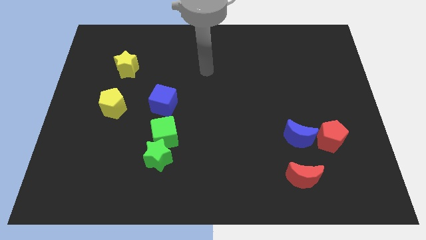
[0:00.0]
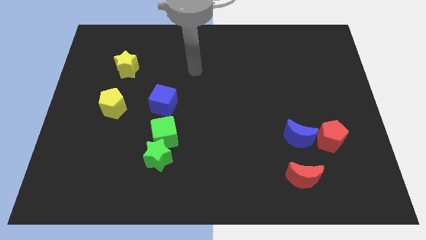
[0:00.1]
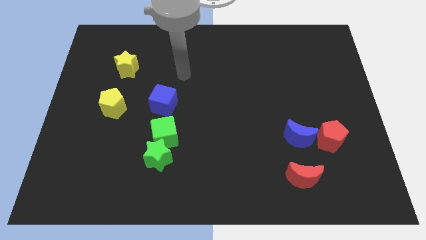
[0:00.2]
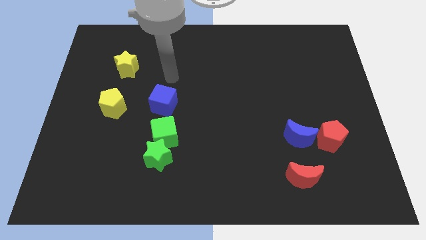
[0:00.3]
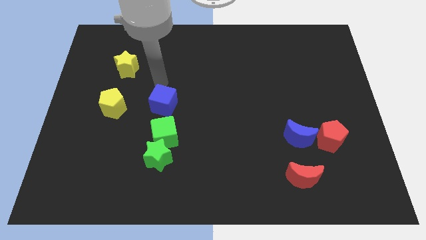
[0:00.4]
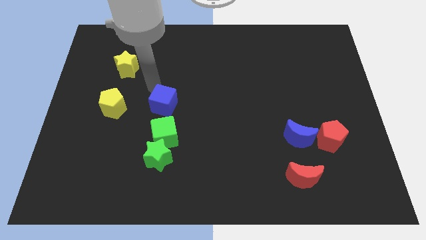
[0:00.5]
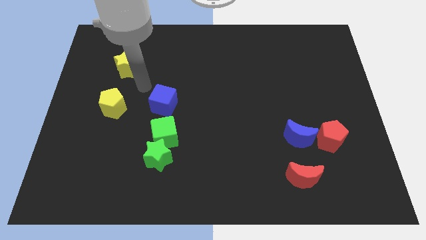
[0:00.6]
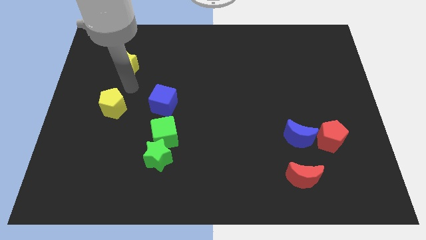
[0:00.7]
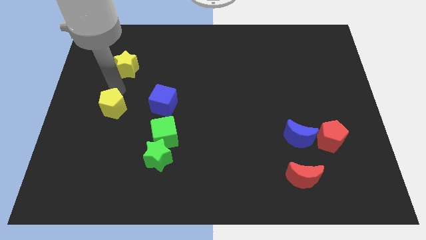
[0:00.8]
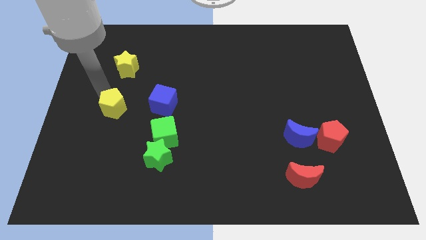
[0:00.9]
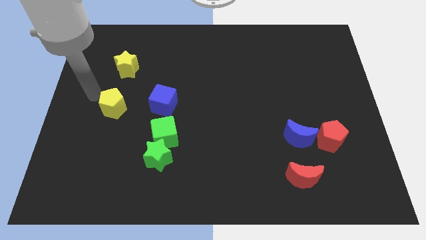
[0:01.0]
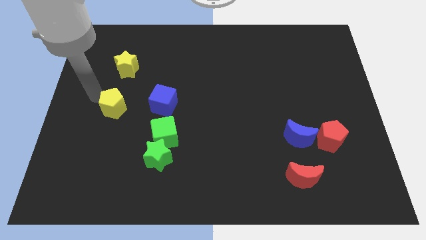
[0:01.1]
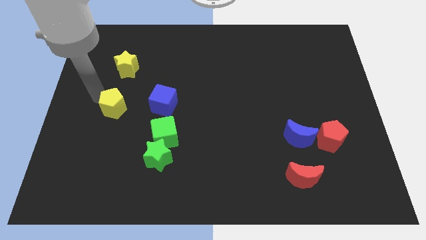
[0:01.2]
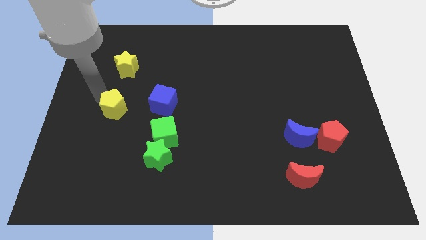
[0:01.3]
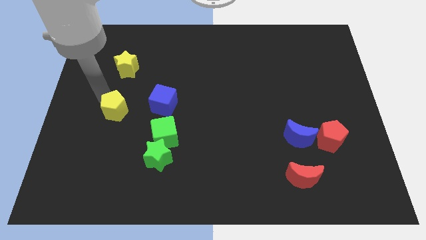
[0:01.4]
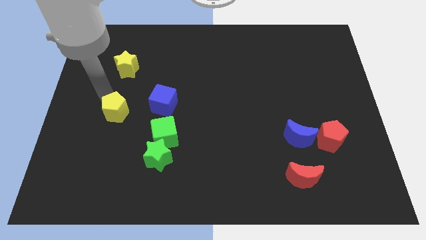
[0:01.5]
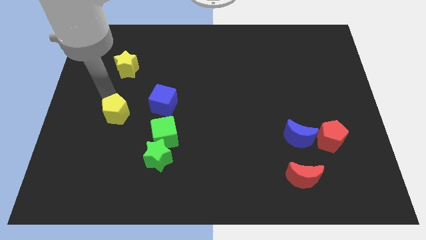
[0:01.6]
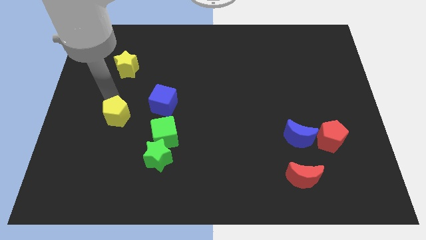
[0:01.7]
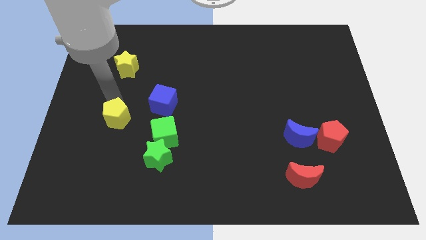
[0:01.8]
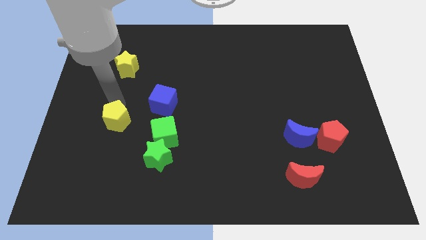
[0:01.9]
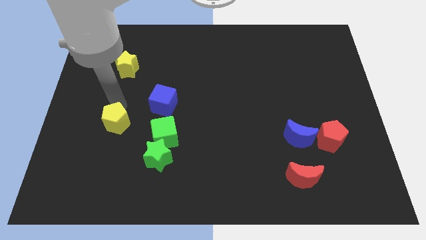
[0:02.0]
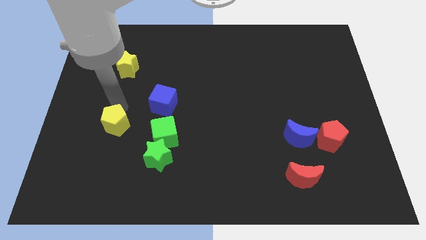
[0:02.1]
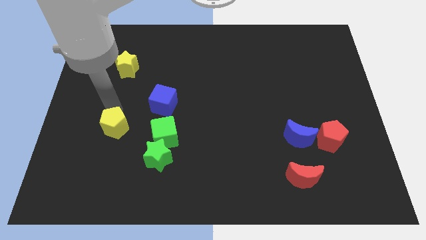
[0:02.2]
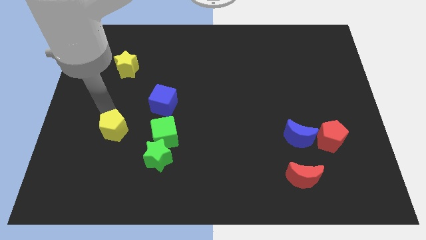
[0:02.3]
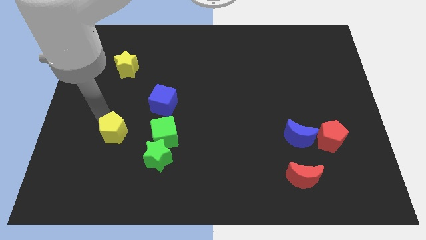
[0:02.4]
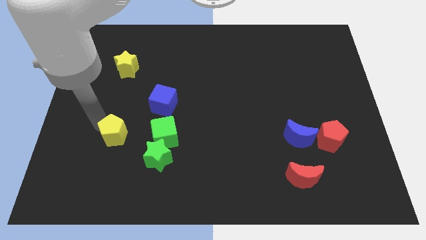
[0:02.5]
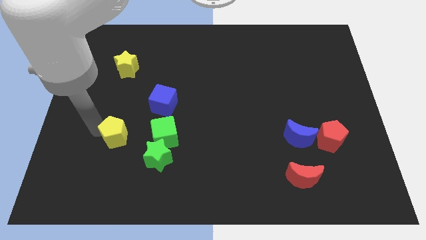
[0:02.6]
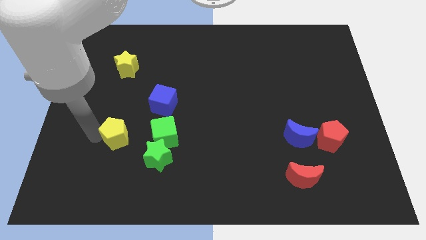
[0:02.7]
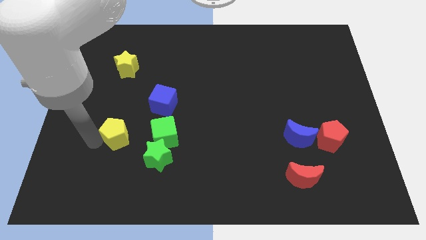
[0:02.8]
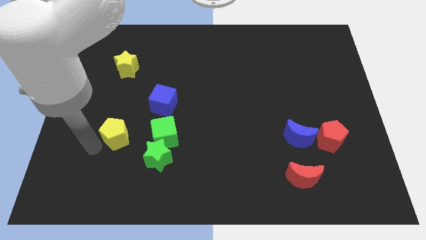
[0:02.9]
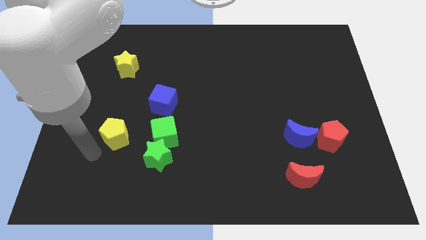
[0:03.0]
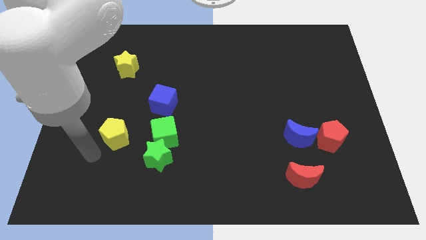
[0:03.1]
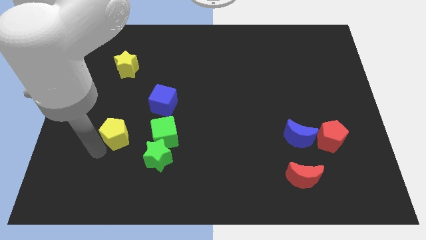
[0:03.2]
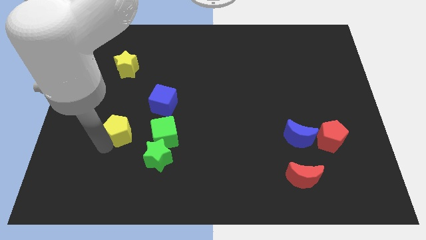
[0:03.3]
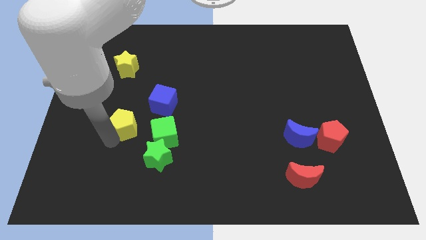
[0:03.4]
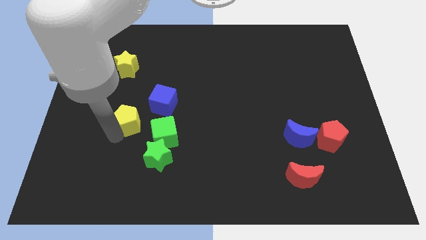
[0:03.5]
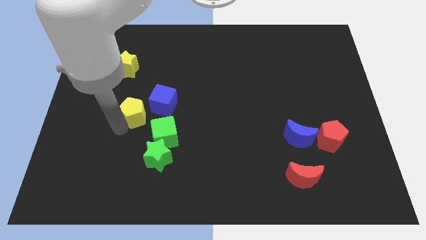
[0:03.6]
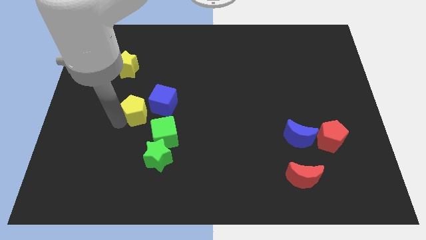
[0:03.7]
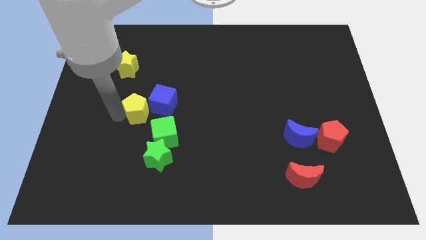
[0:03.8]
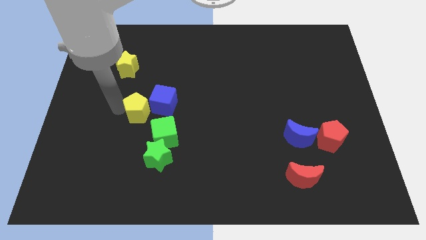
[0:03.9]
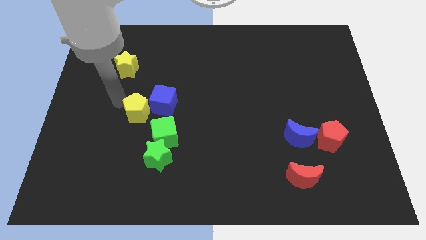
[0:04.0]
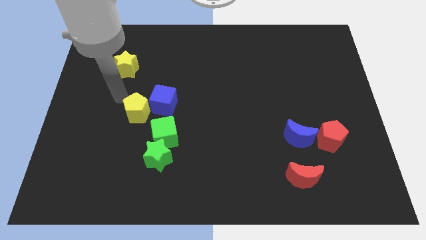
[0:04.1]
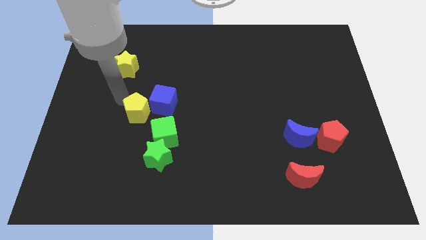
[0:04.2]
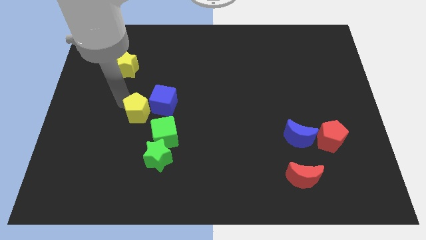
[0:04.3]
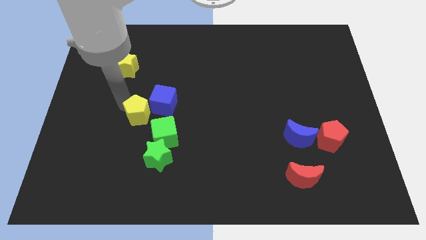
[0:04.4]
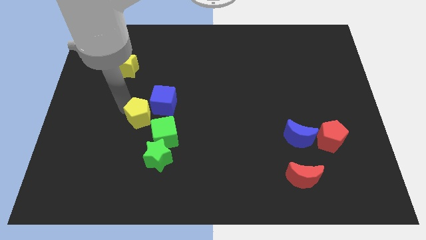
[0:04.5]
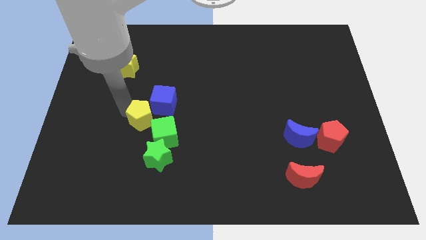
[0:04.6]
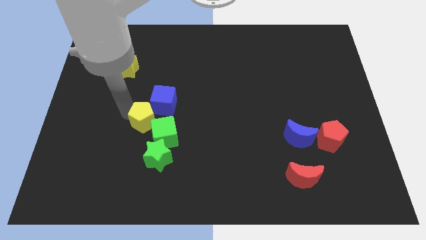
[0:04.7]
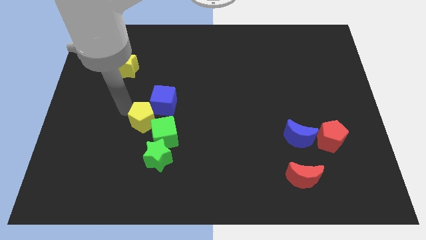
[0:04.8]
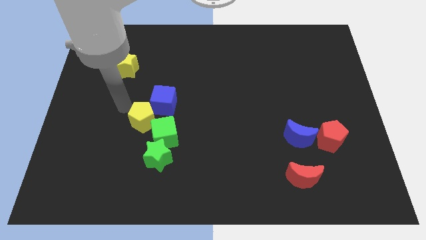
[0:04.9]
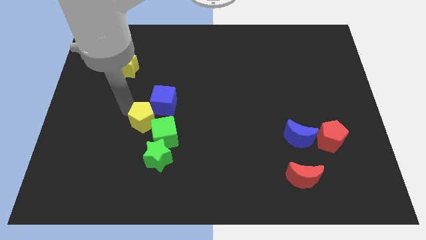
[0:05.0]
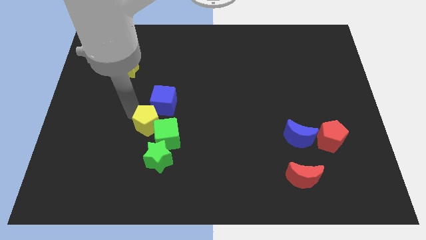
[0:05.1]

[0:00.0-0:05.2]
slide the yellow pentagon next to the green cube

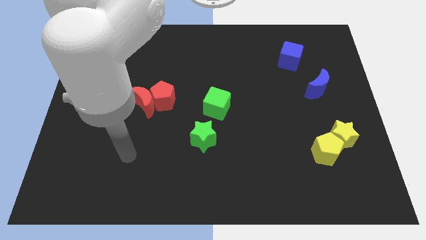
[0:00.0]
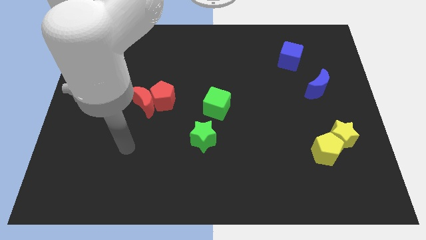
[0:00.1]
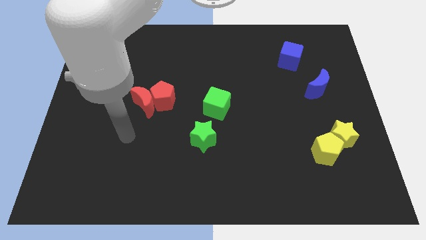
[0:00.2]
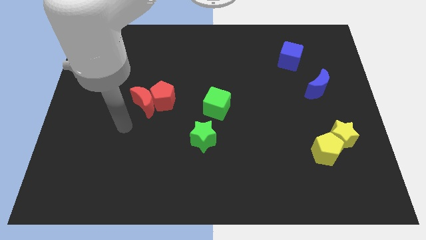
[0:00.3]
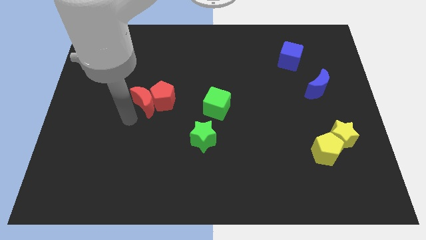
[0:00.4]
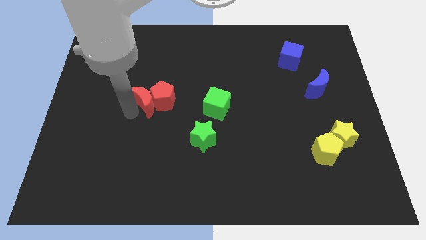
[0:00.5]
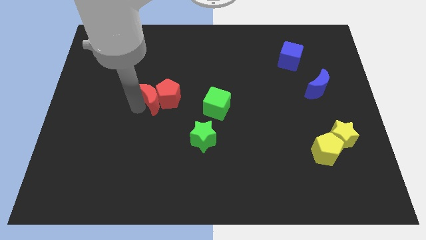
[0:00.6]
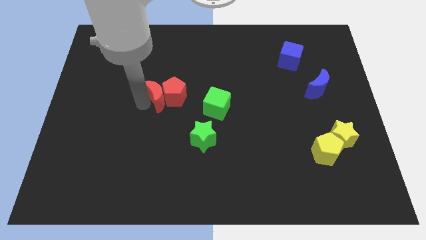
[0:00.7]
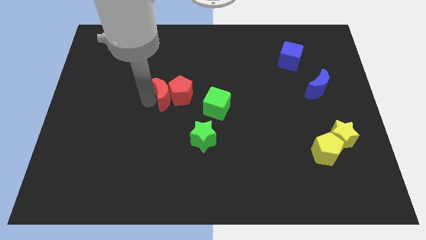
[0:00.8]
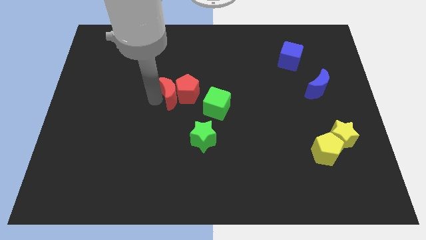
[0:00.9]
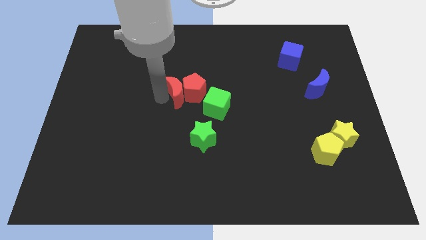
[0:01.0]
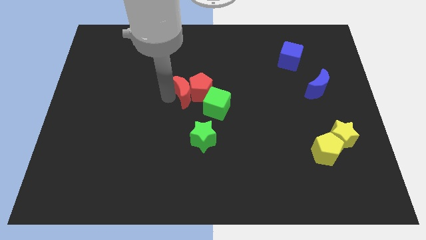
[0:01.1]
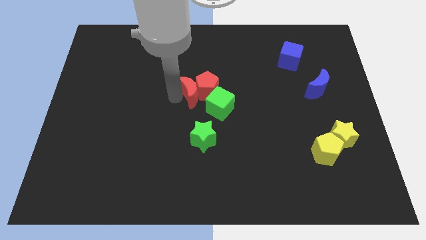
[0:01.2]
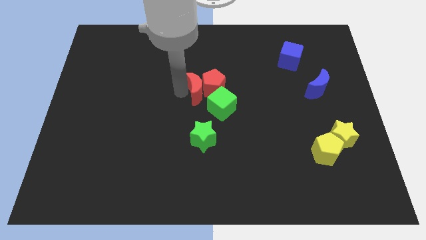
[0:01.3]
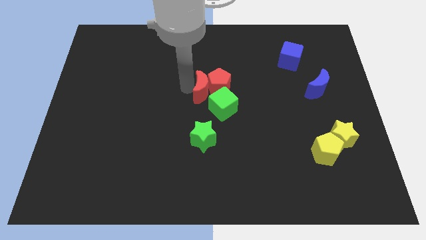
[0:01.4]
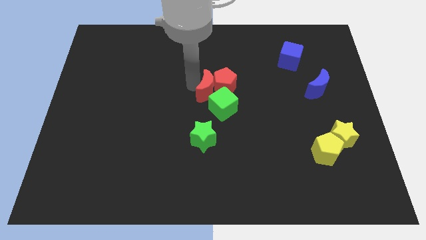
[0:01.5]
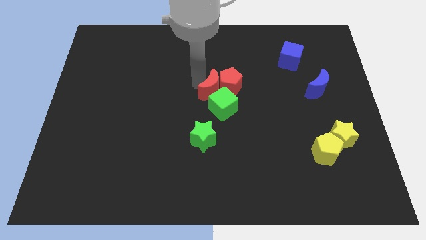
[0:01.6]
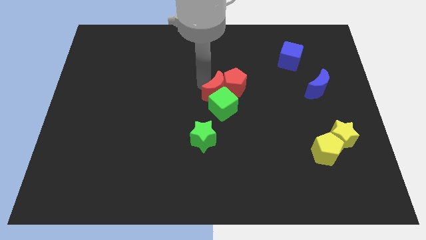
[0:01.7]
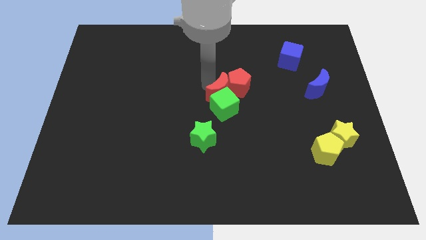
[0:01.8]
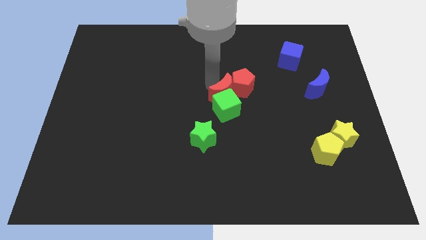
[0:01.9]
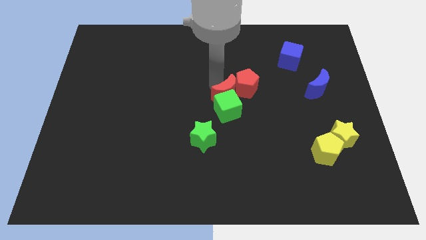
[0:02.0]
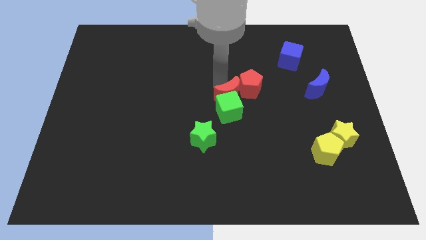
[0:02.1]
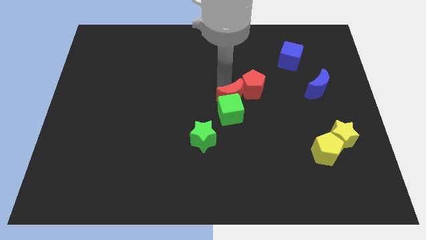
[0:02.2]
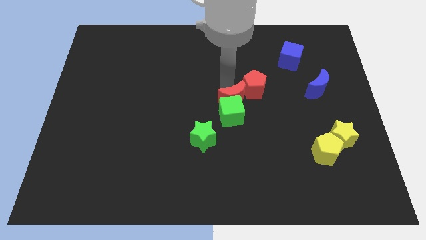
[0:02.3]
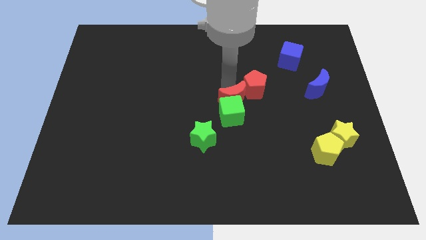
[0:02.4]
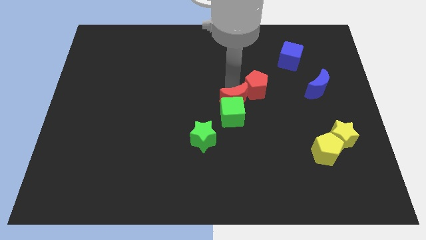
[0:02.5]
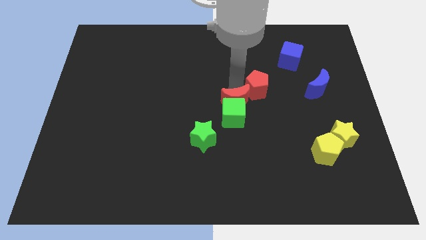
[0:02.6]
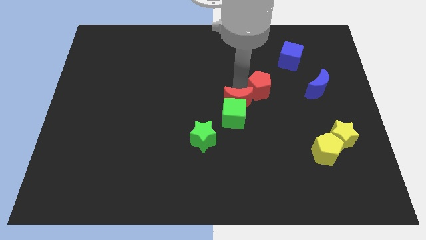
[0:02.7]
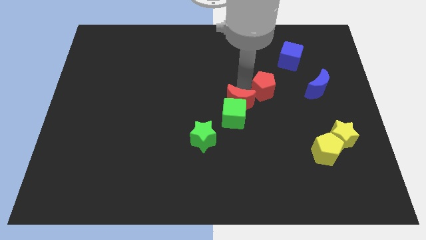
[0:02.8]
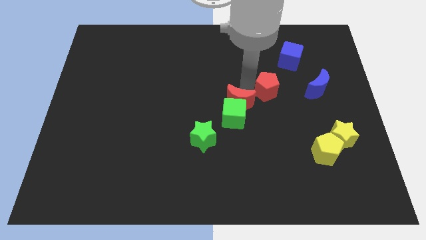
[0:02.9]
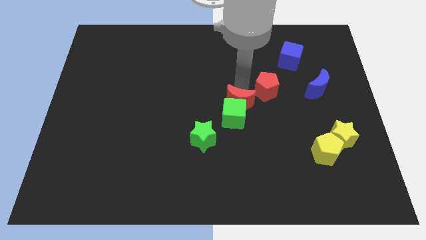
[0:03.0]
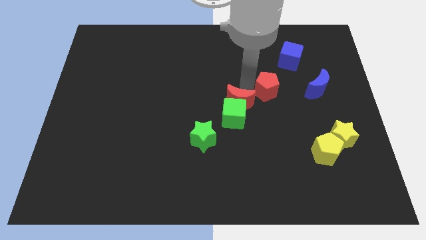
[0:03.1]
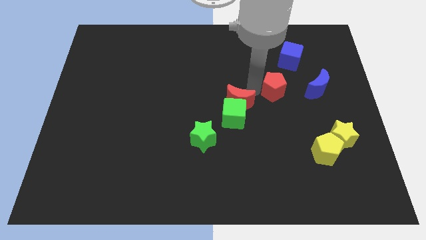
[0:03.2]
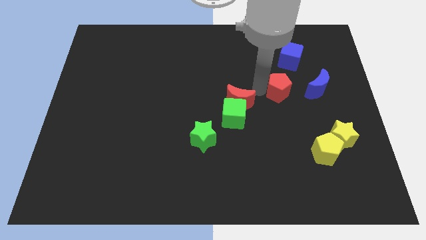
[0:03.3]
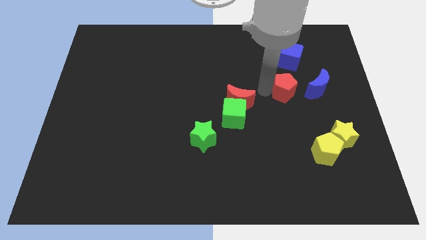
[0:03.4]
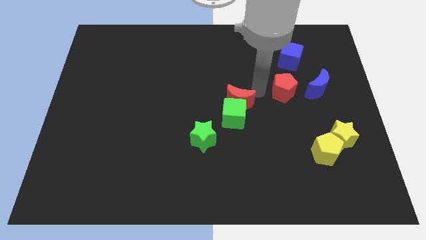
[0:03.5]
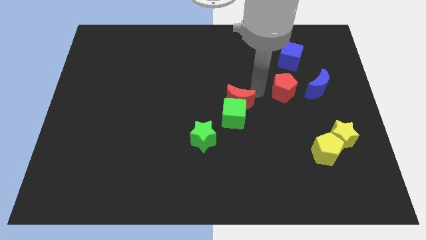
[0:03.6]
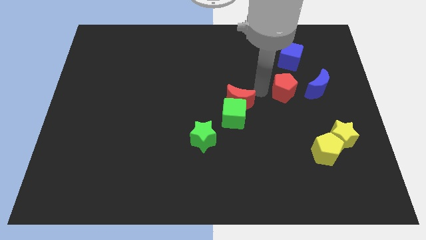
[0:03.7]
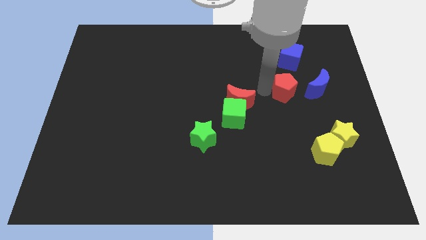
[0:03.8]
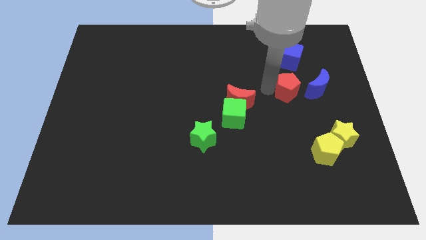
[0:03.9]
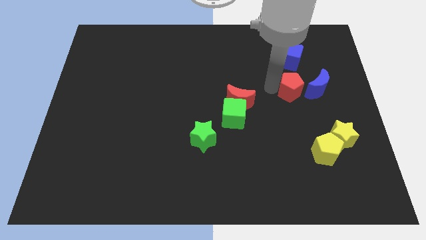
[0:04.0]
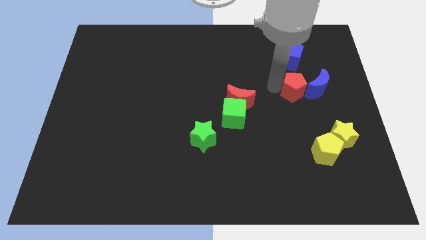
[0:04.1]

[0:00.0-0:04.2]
put the red pentagon next to the blue moon
